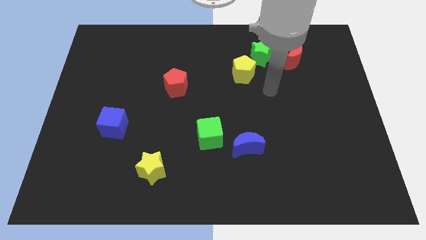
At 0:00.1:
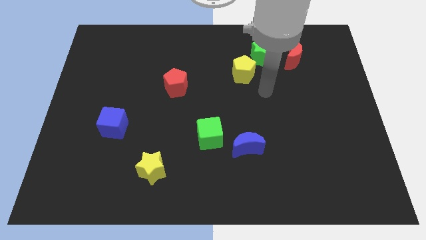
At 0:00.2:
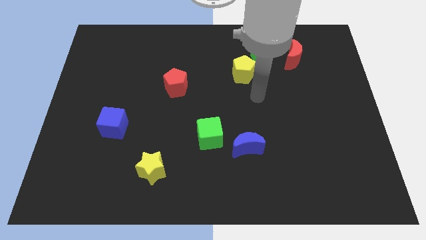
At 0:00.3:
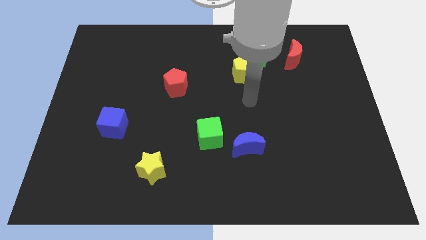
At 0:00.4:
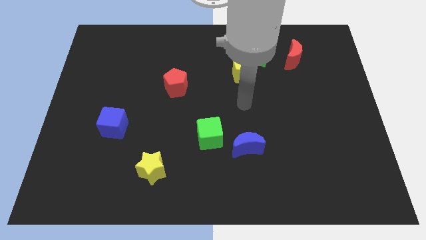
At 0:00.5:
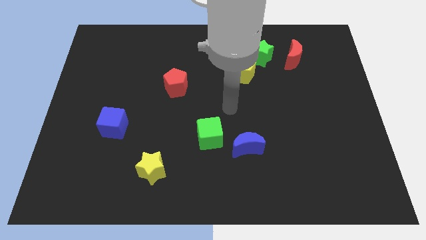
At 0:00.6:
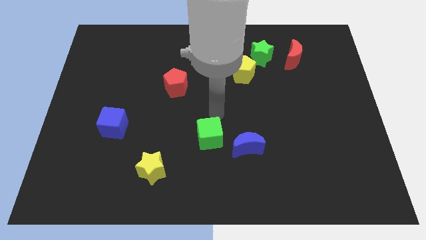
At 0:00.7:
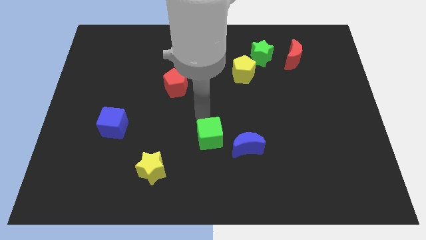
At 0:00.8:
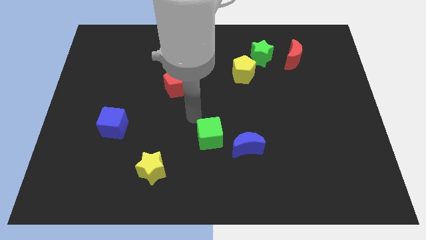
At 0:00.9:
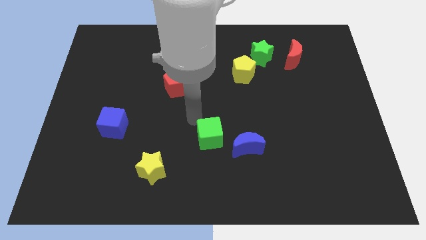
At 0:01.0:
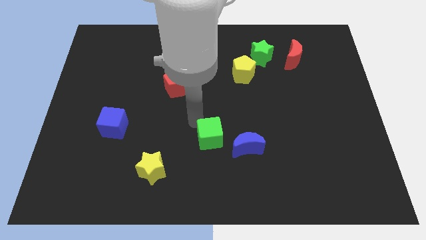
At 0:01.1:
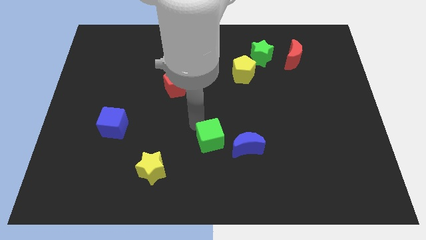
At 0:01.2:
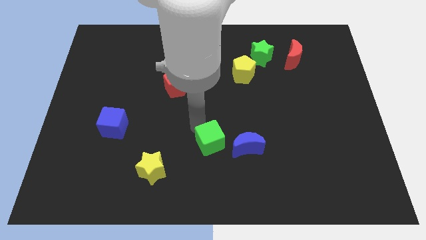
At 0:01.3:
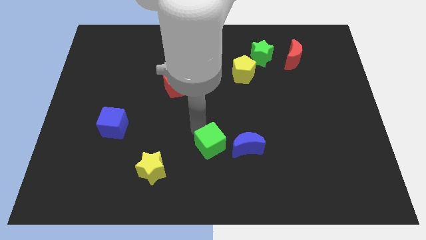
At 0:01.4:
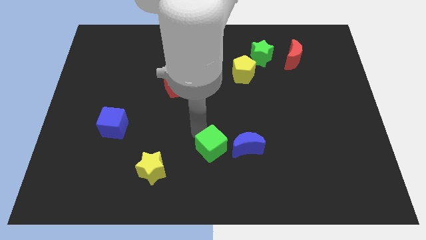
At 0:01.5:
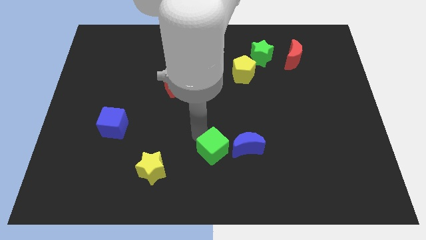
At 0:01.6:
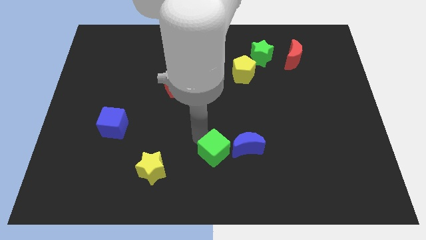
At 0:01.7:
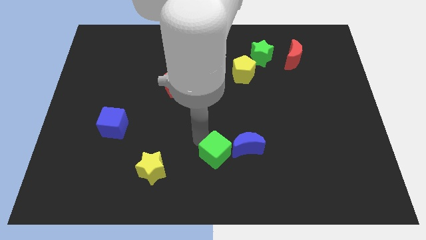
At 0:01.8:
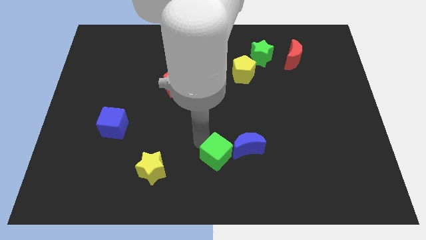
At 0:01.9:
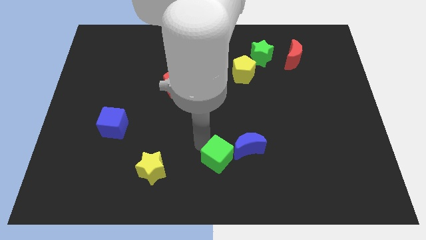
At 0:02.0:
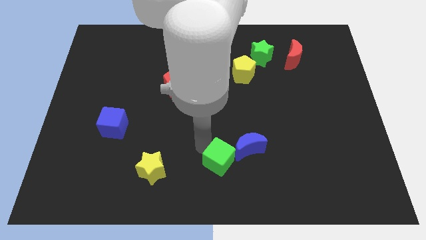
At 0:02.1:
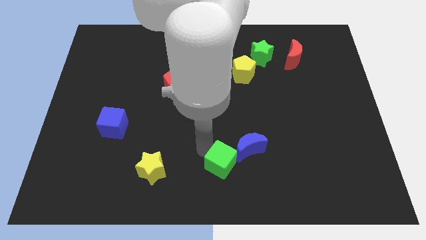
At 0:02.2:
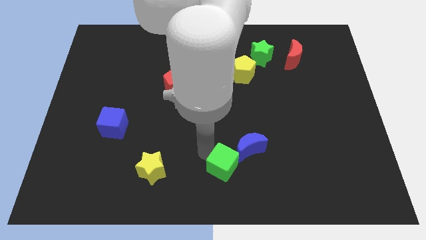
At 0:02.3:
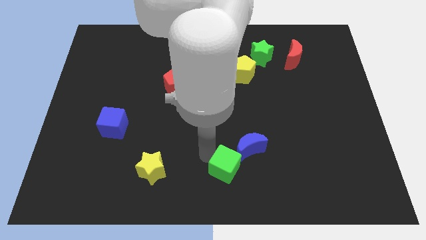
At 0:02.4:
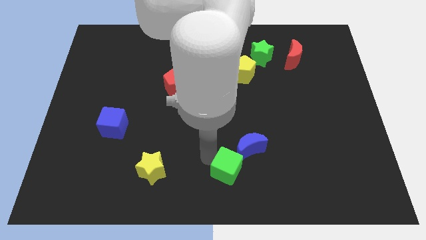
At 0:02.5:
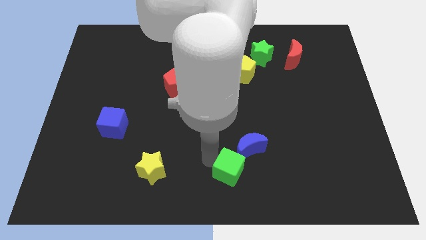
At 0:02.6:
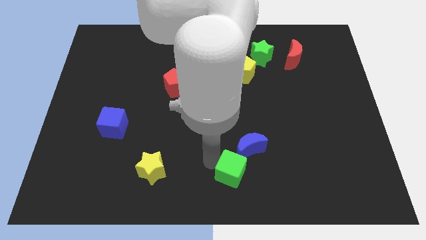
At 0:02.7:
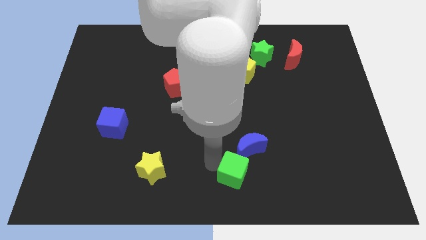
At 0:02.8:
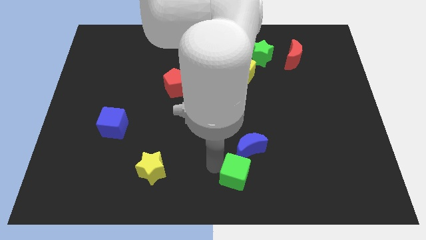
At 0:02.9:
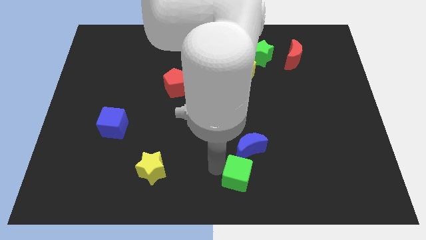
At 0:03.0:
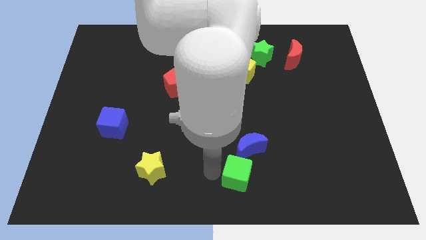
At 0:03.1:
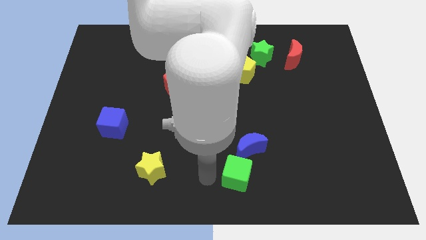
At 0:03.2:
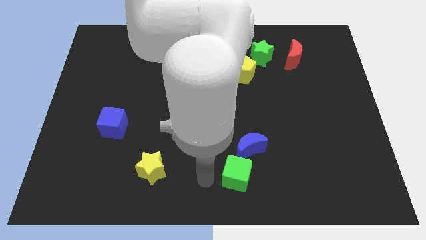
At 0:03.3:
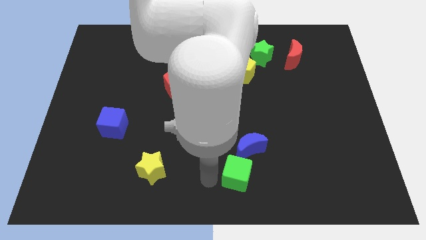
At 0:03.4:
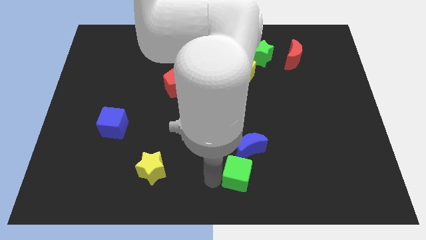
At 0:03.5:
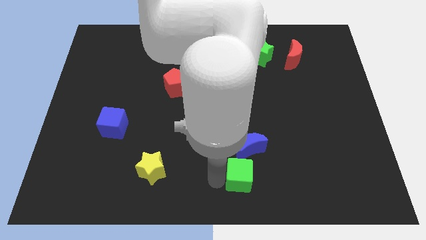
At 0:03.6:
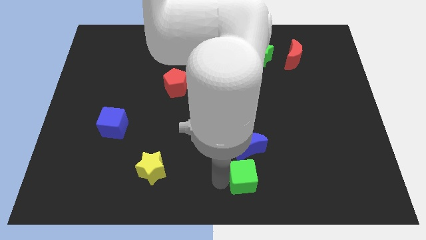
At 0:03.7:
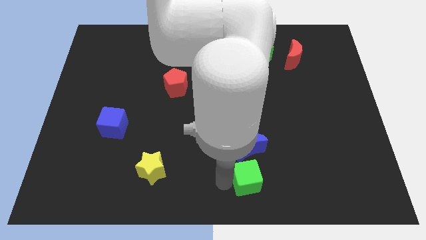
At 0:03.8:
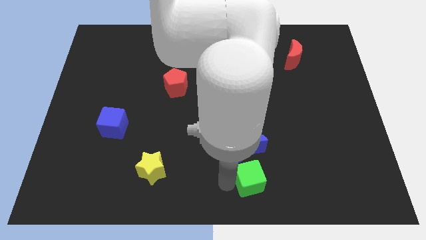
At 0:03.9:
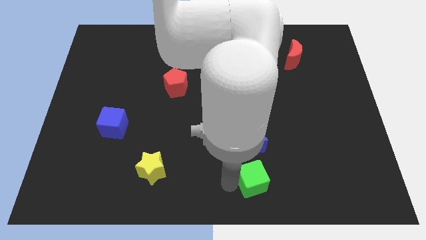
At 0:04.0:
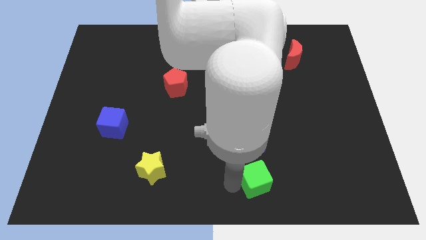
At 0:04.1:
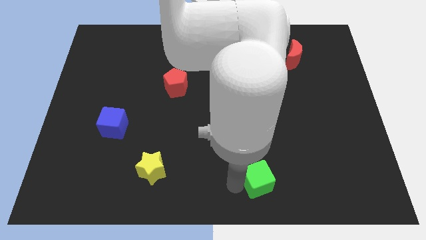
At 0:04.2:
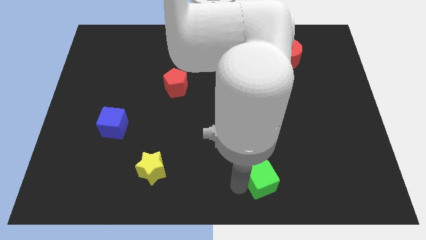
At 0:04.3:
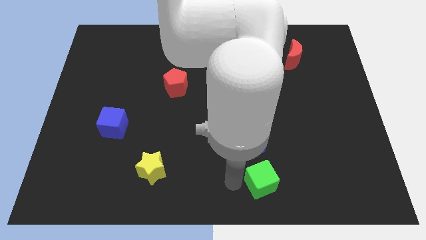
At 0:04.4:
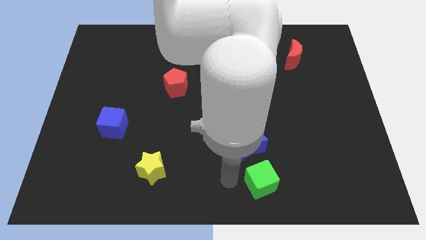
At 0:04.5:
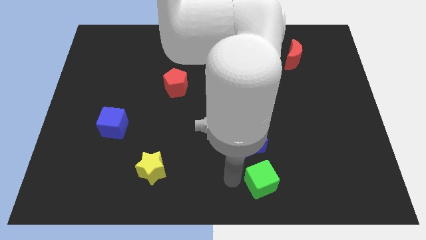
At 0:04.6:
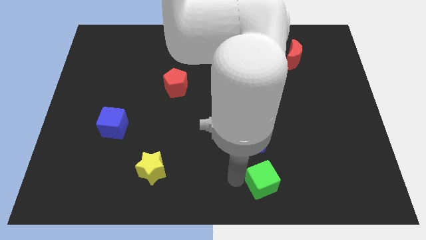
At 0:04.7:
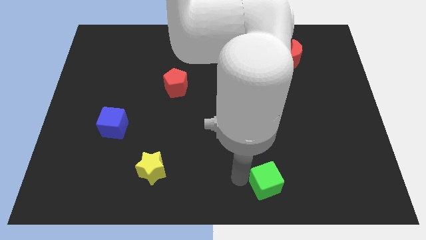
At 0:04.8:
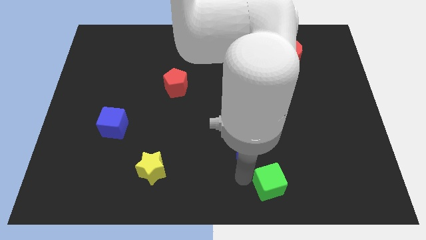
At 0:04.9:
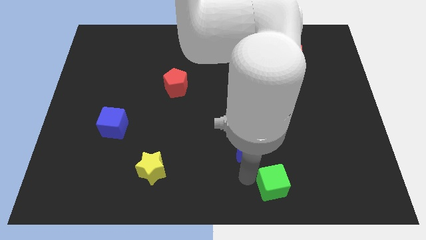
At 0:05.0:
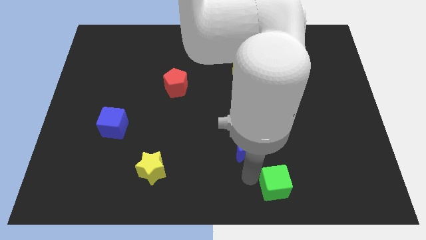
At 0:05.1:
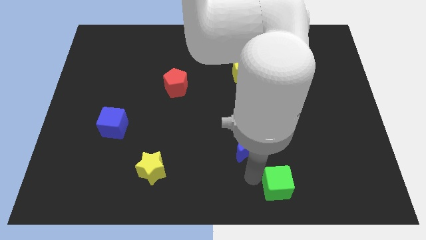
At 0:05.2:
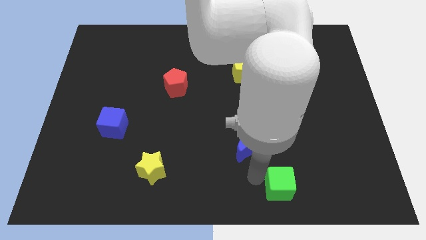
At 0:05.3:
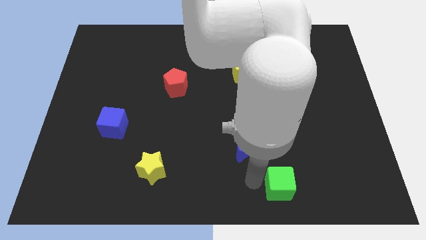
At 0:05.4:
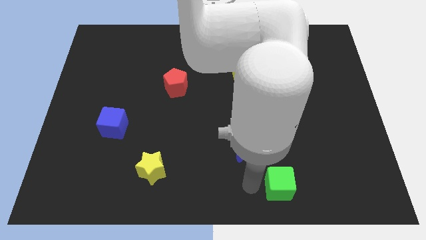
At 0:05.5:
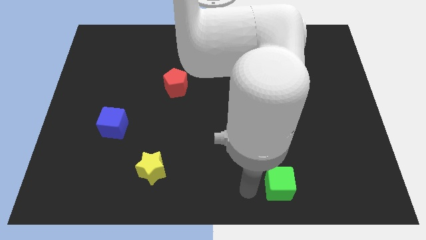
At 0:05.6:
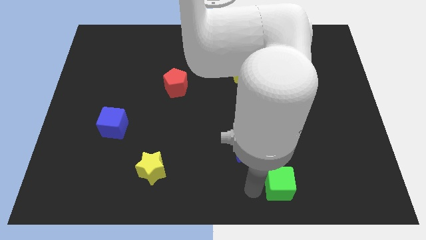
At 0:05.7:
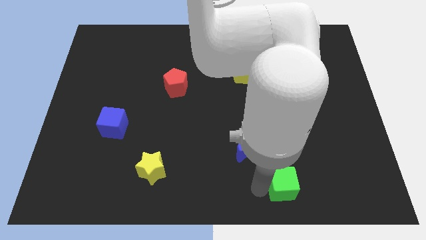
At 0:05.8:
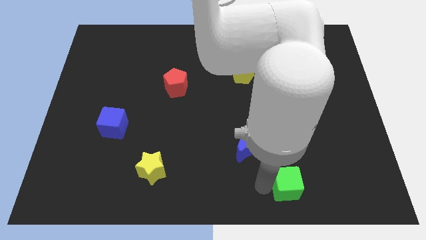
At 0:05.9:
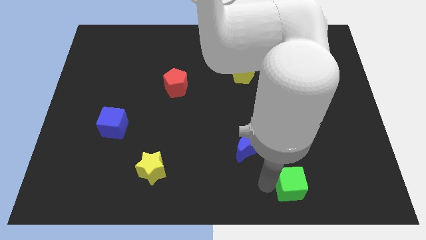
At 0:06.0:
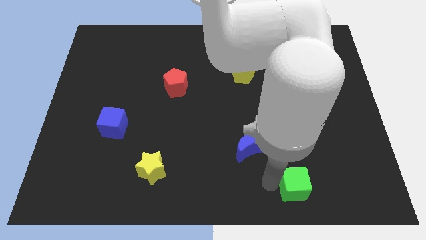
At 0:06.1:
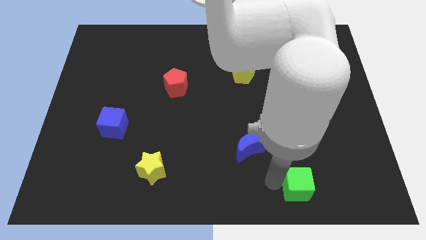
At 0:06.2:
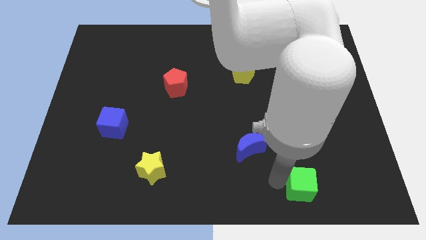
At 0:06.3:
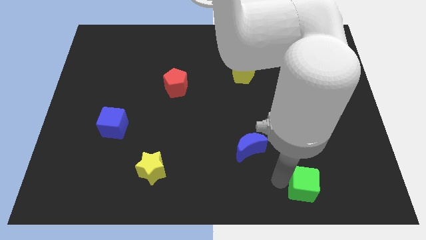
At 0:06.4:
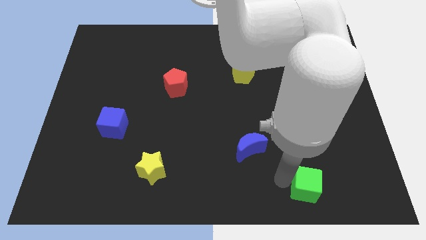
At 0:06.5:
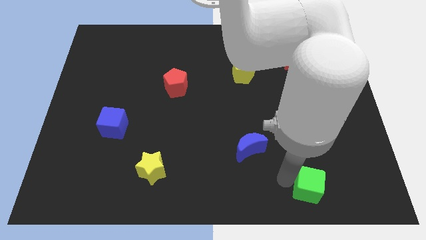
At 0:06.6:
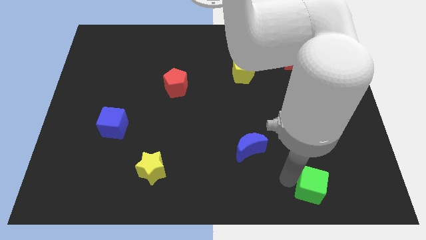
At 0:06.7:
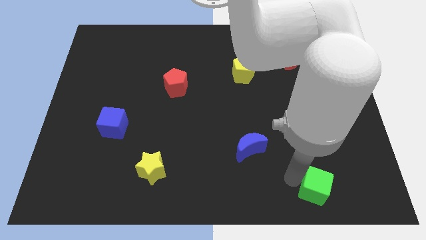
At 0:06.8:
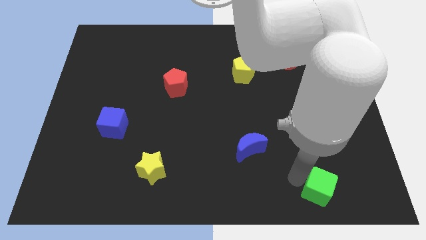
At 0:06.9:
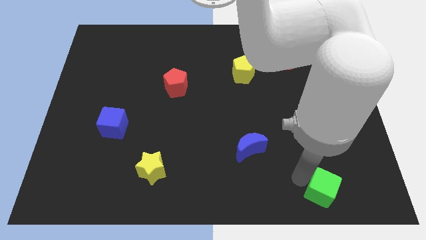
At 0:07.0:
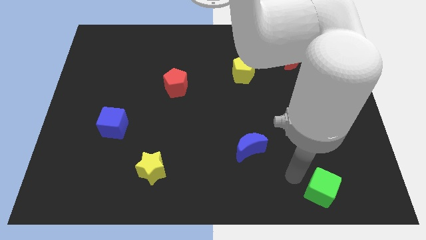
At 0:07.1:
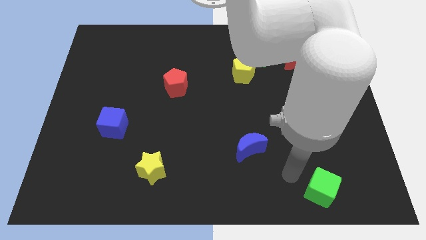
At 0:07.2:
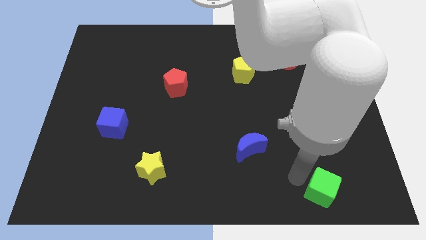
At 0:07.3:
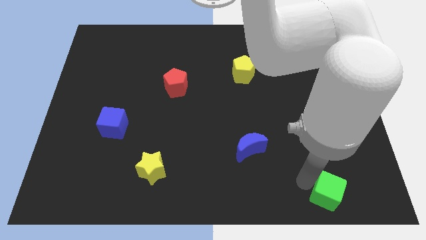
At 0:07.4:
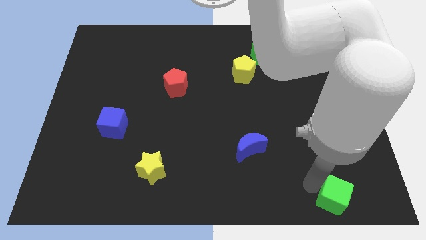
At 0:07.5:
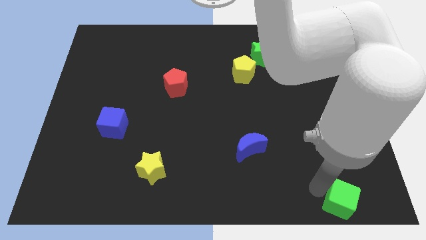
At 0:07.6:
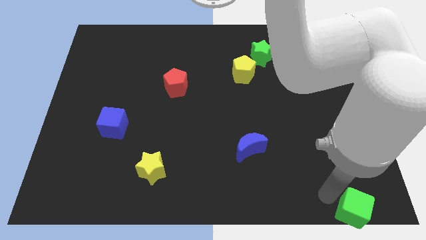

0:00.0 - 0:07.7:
push the green cube to the lower right corner
